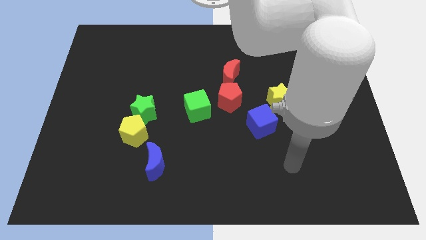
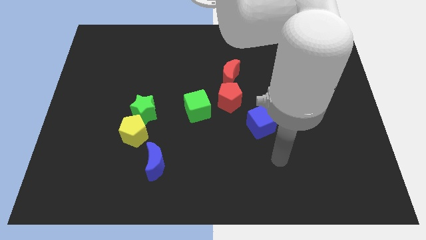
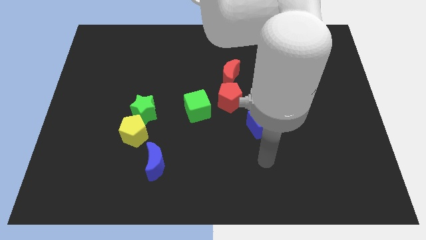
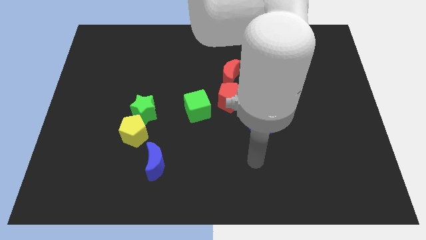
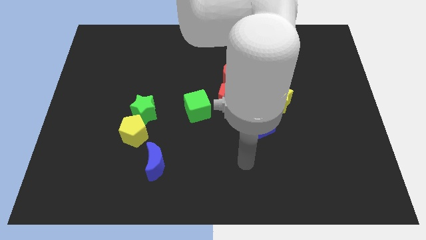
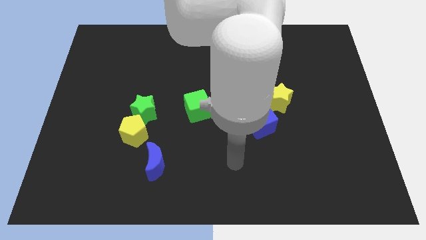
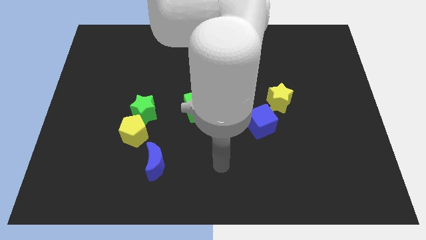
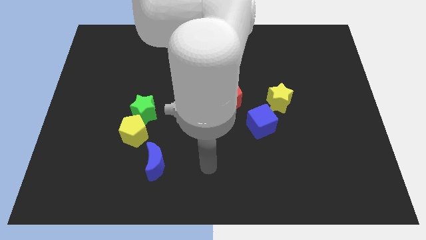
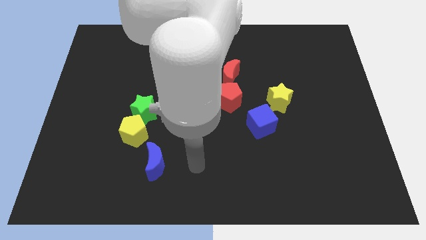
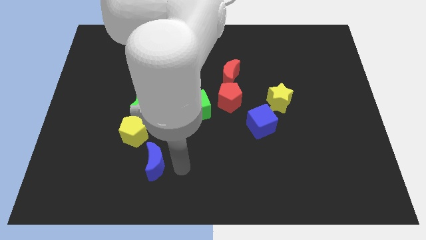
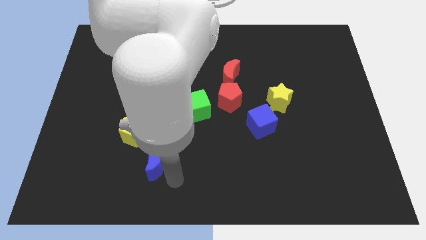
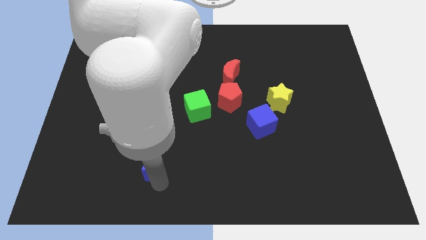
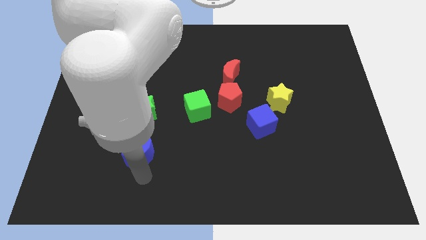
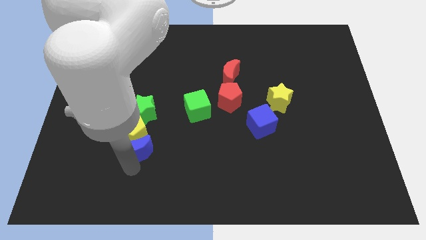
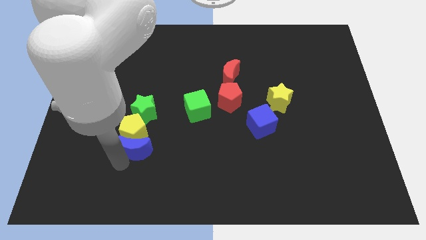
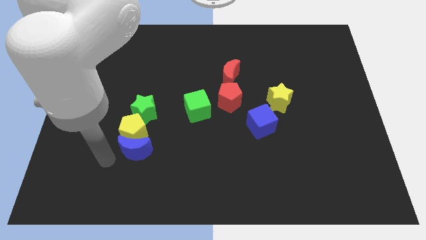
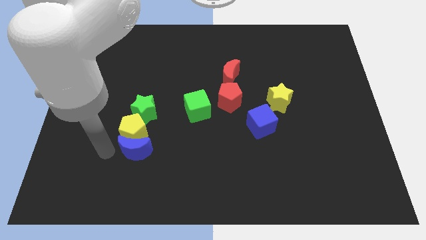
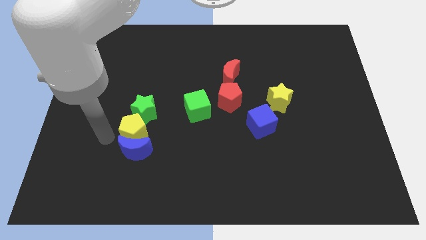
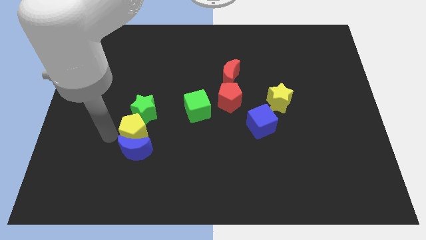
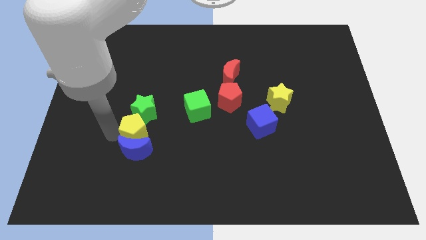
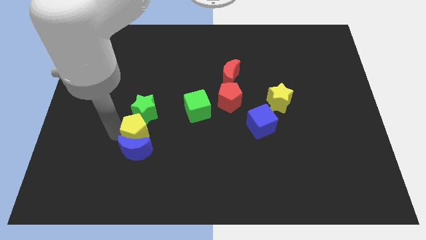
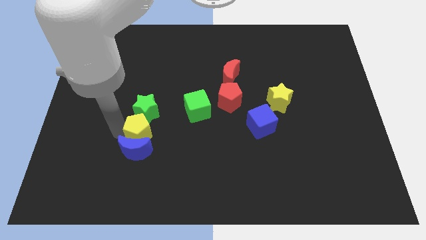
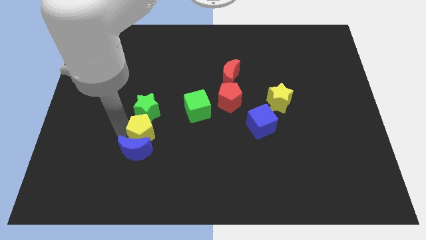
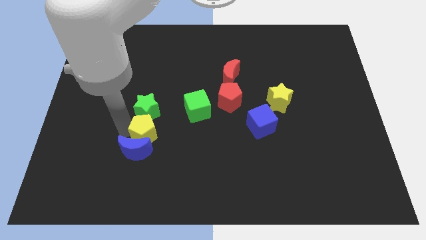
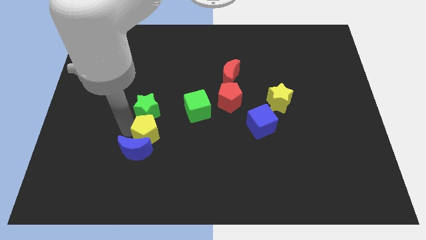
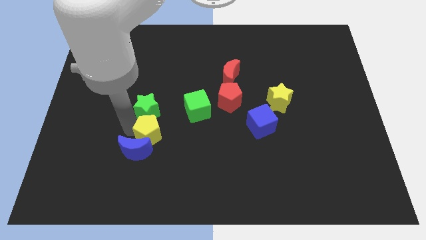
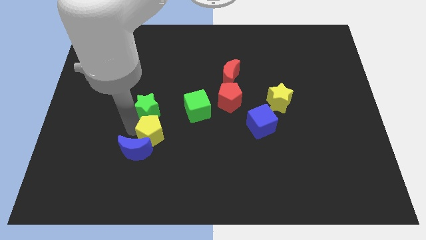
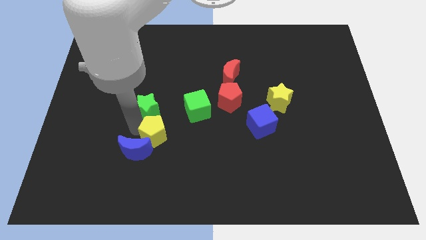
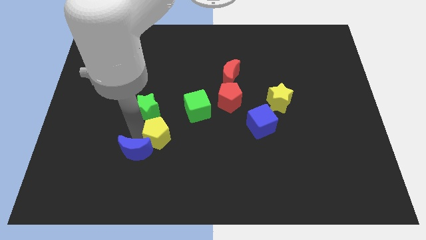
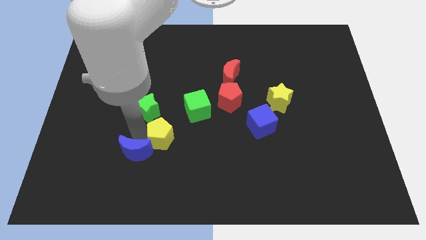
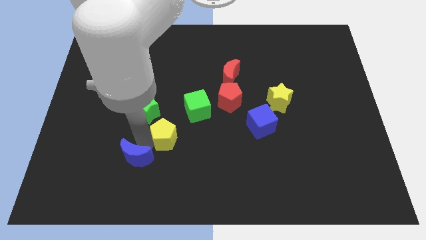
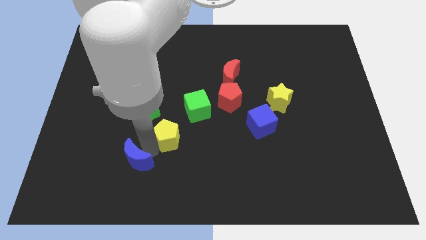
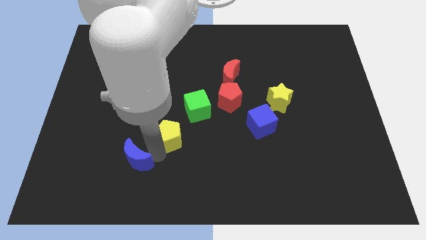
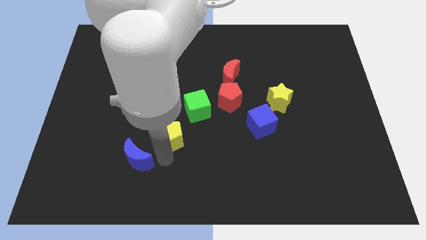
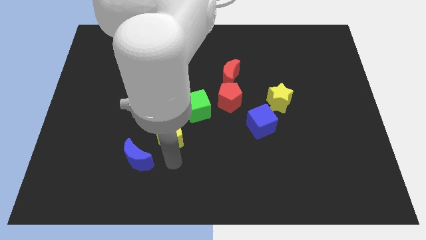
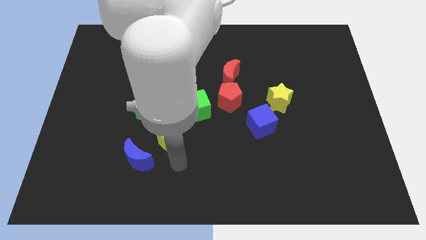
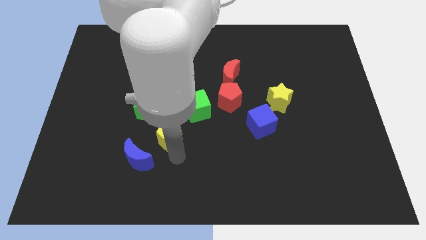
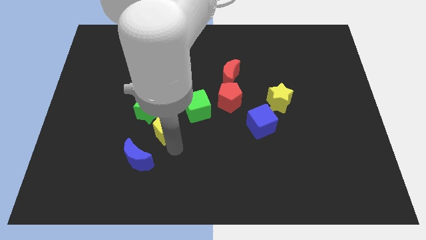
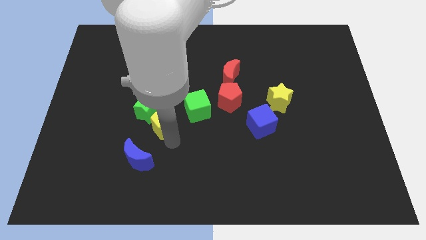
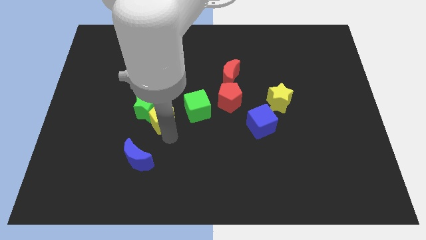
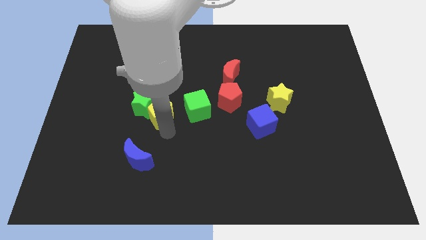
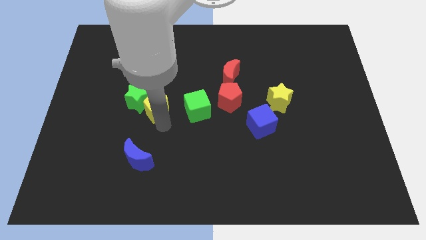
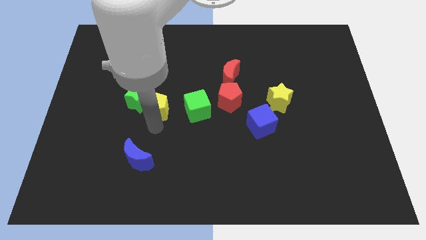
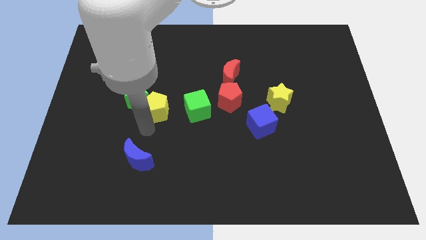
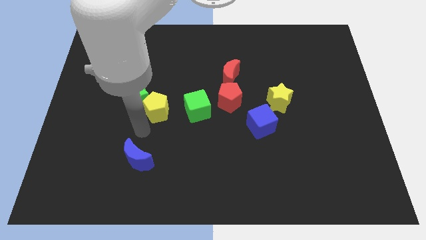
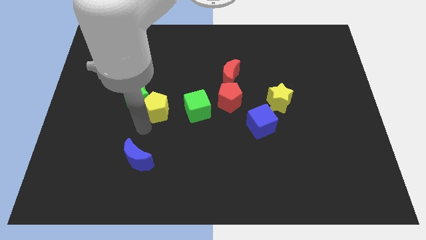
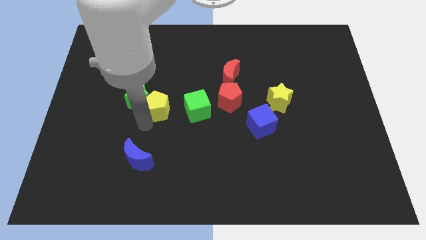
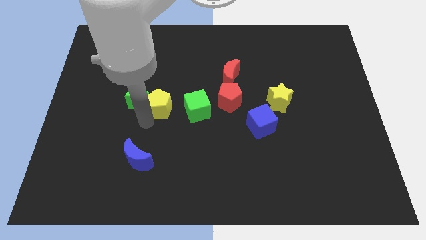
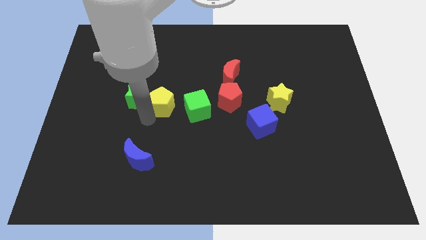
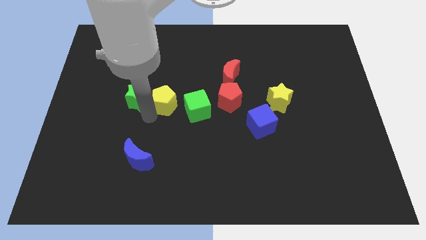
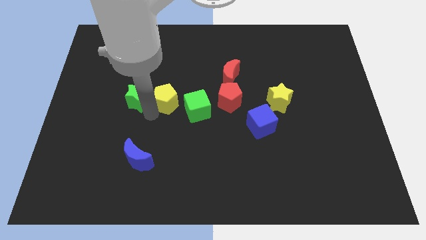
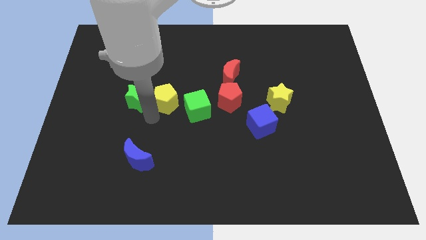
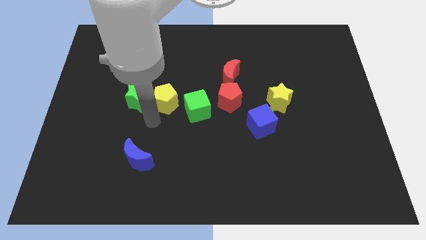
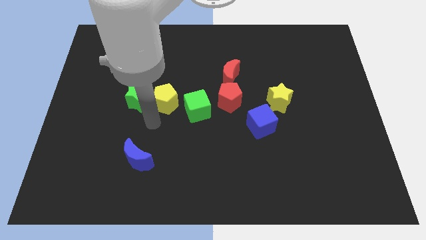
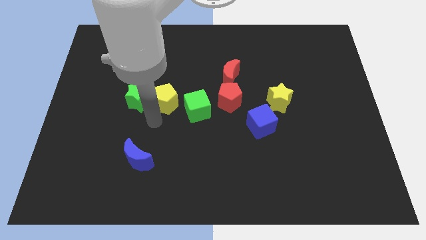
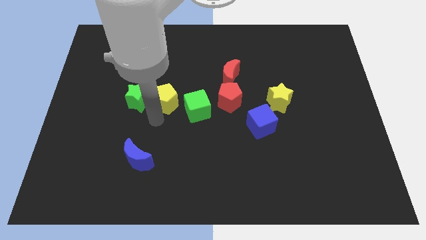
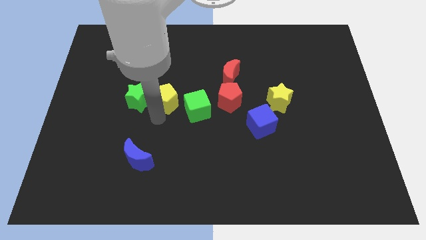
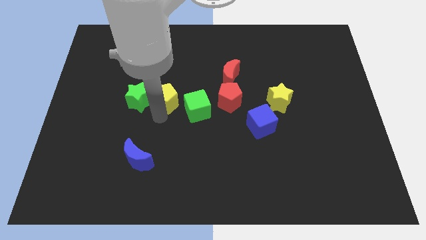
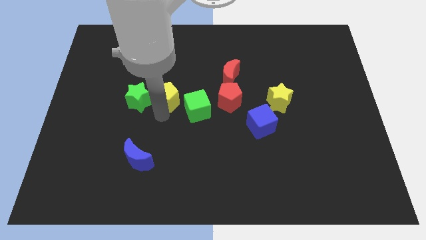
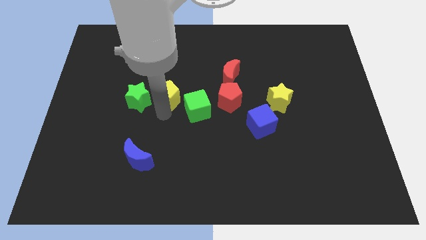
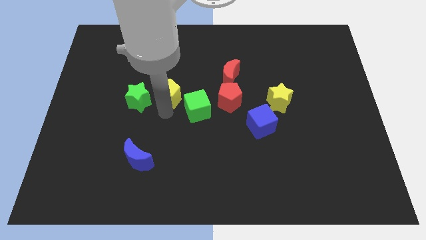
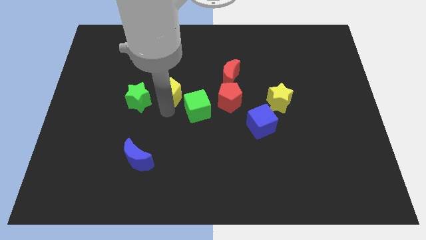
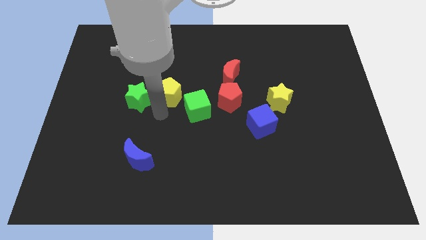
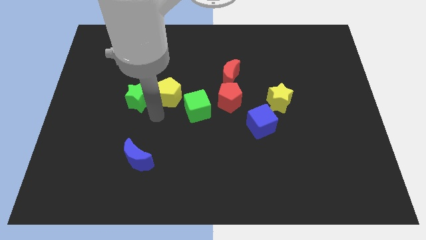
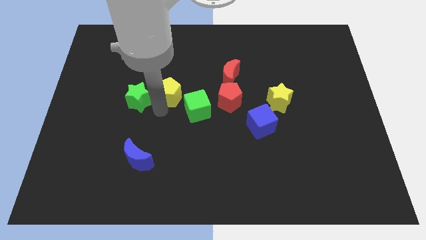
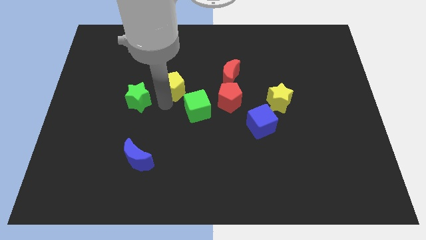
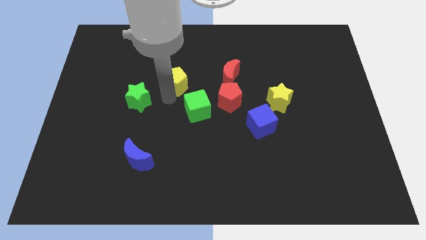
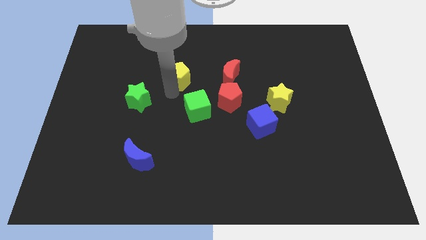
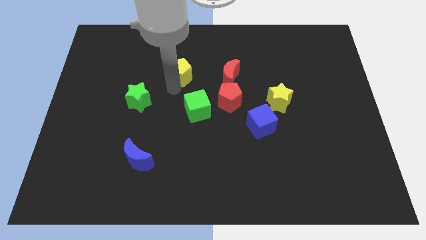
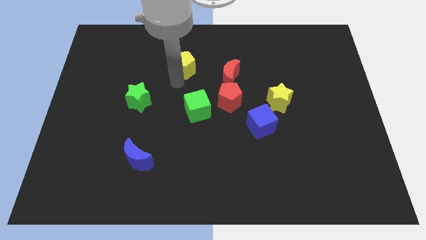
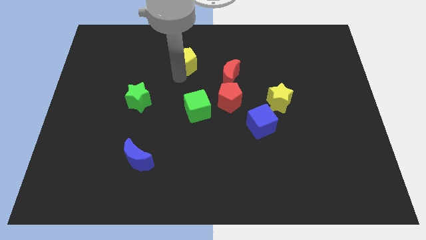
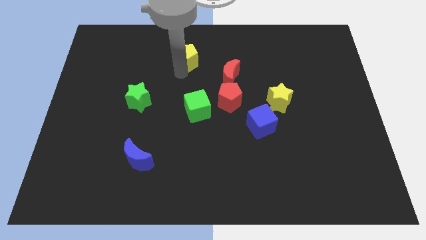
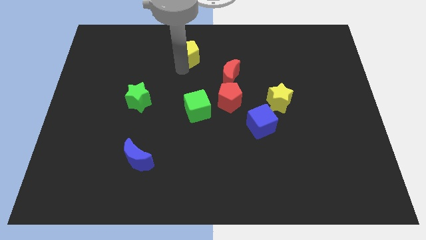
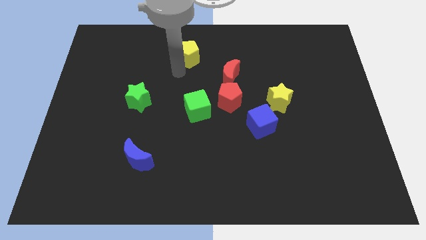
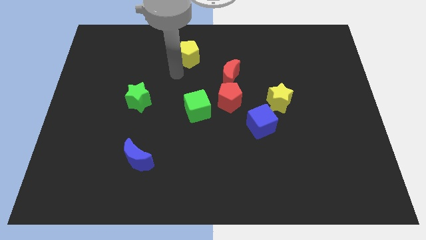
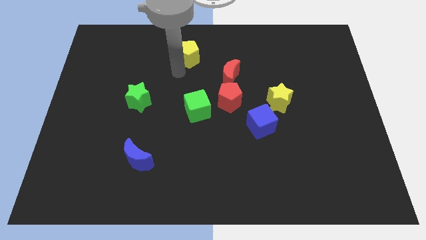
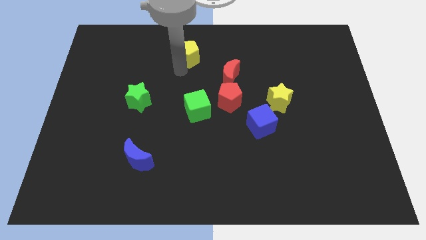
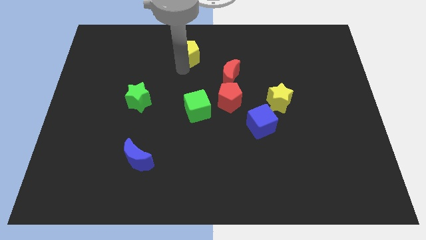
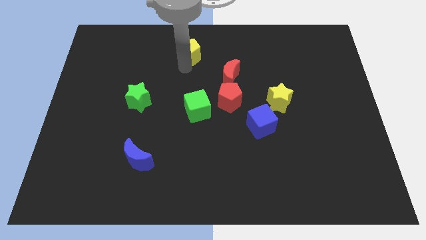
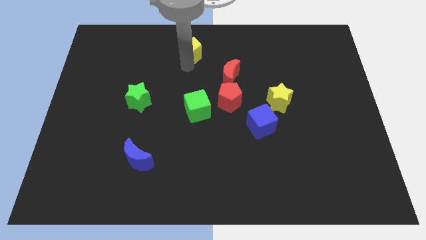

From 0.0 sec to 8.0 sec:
move the yellow pentagon to the top
